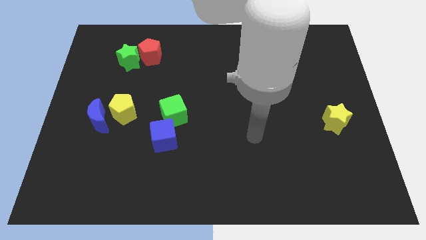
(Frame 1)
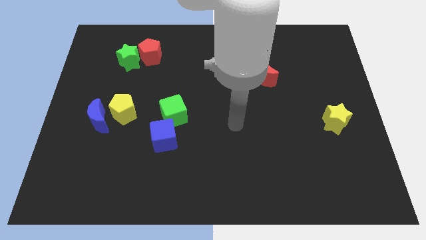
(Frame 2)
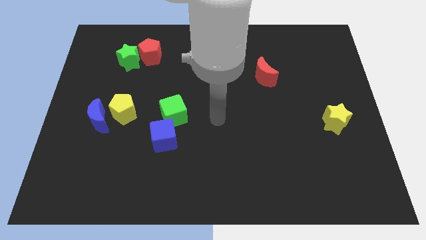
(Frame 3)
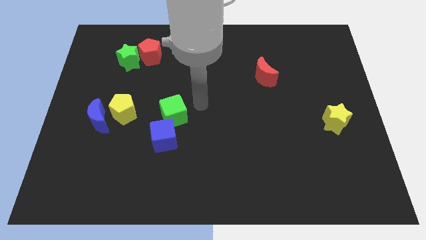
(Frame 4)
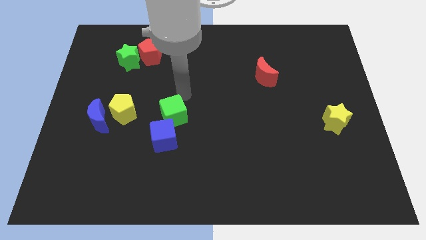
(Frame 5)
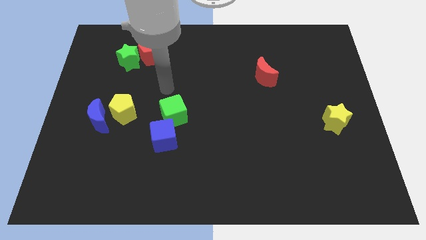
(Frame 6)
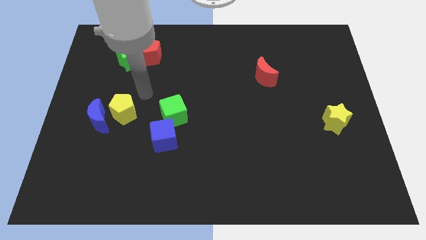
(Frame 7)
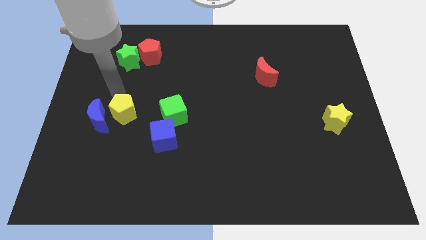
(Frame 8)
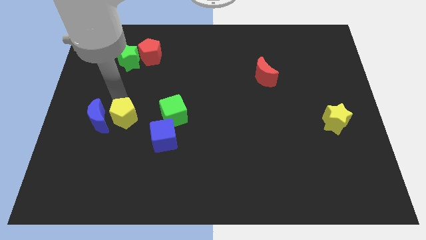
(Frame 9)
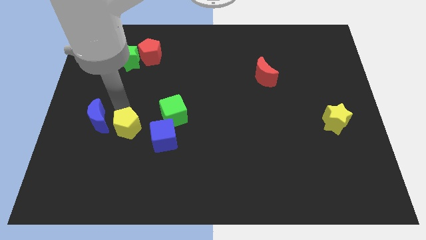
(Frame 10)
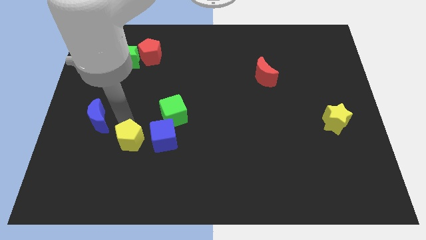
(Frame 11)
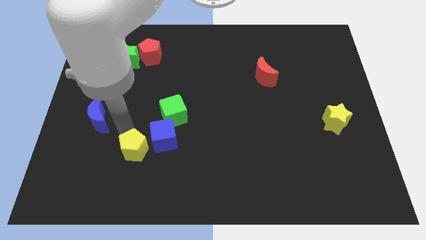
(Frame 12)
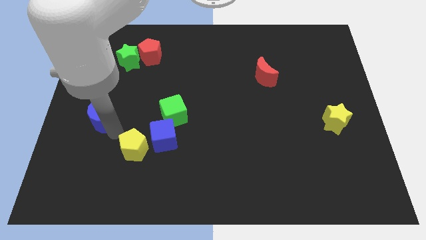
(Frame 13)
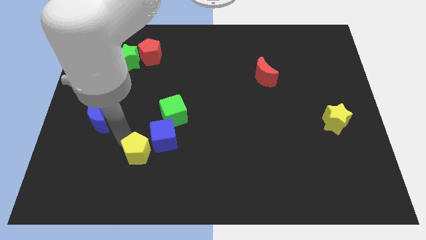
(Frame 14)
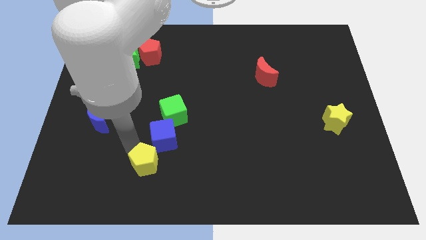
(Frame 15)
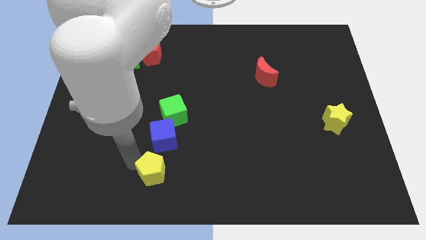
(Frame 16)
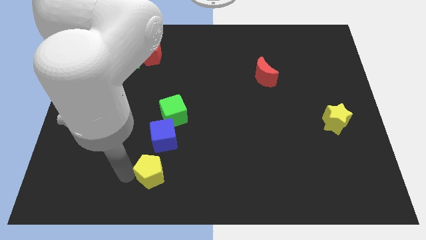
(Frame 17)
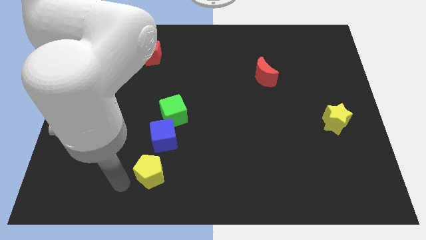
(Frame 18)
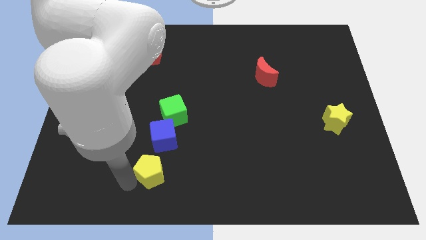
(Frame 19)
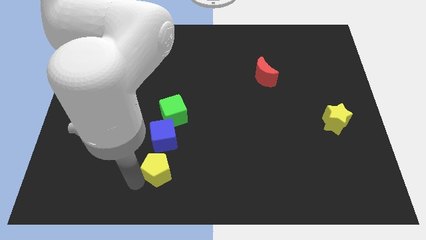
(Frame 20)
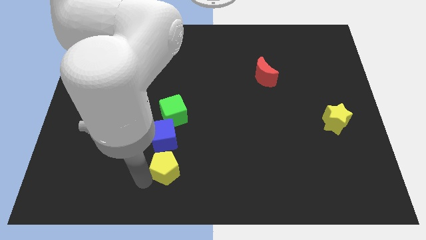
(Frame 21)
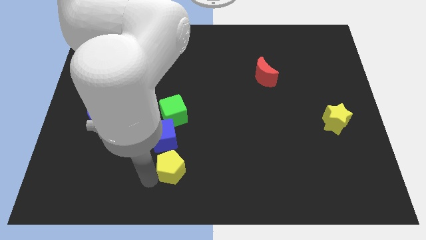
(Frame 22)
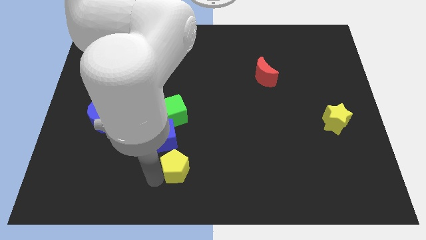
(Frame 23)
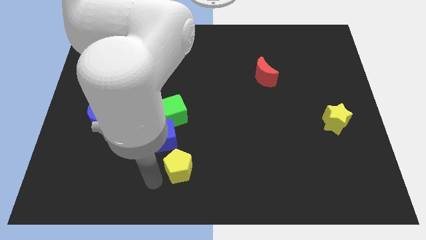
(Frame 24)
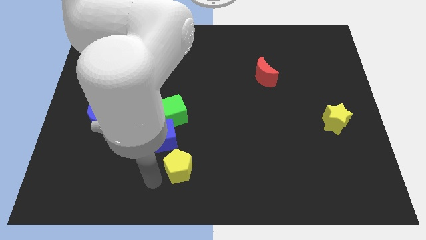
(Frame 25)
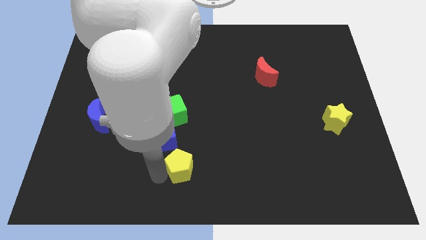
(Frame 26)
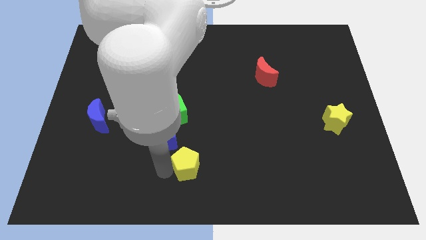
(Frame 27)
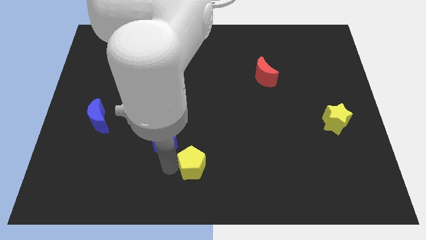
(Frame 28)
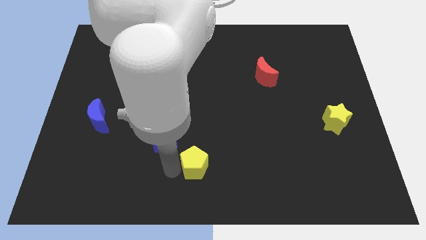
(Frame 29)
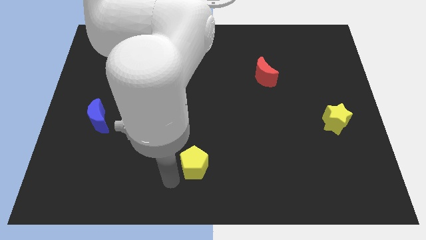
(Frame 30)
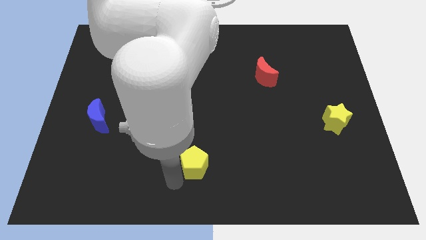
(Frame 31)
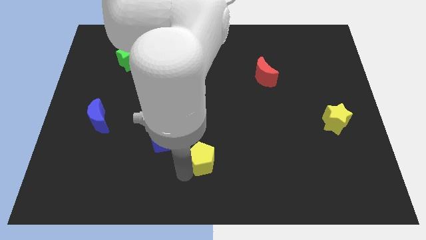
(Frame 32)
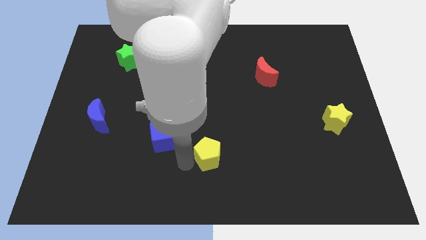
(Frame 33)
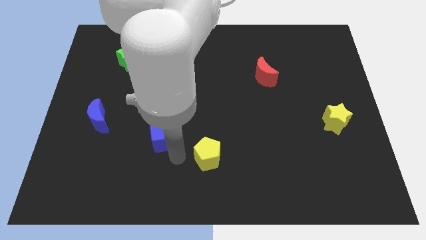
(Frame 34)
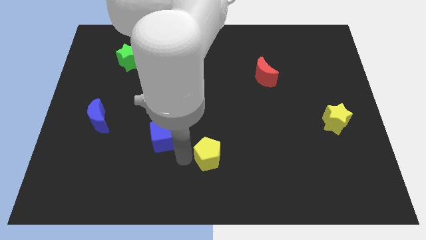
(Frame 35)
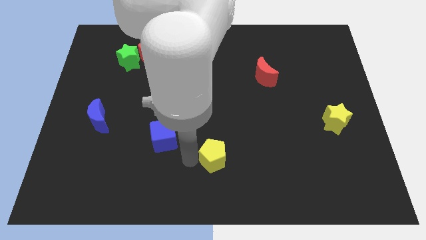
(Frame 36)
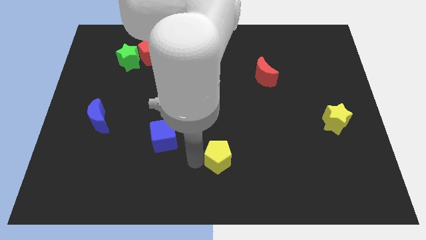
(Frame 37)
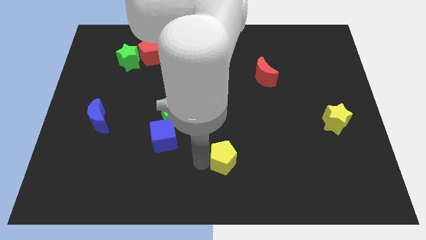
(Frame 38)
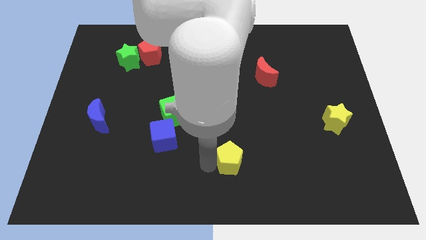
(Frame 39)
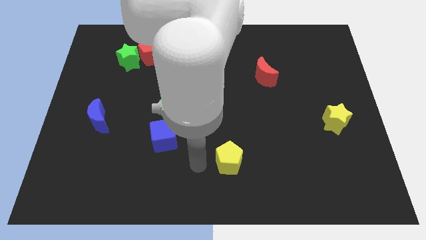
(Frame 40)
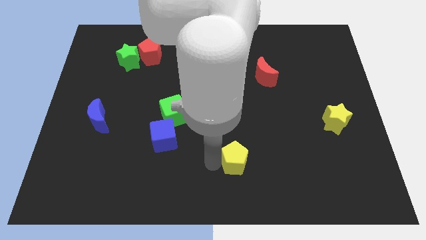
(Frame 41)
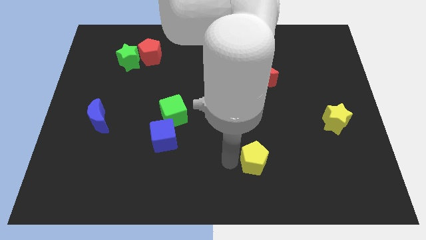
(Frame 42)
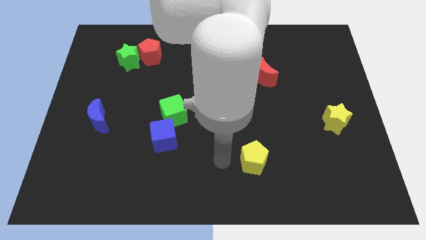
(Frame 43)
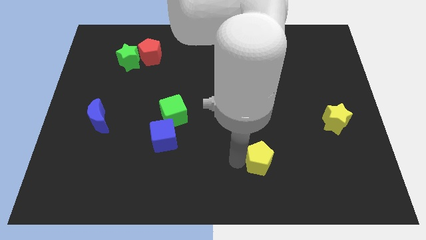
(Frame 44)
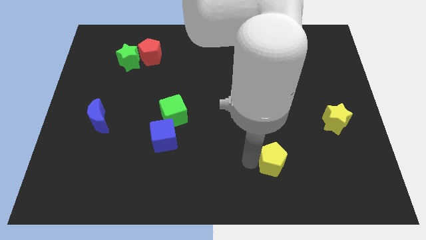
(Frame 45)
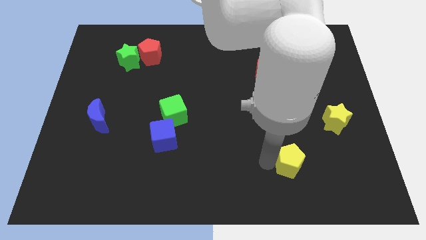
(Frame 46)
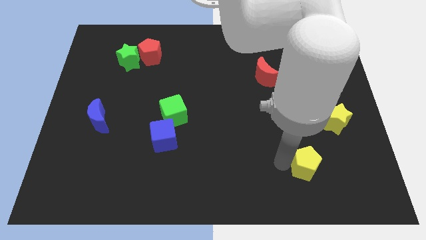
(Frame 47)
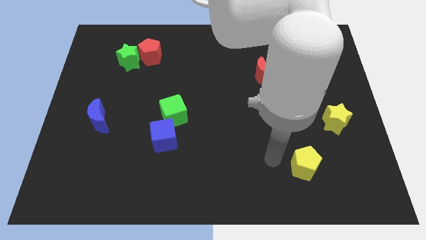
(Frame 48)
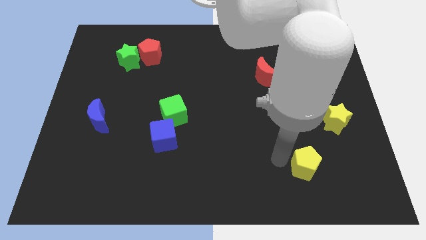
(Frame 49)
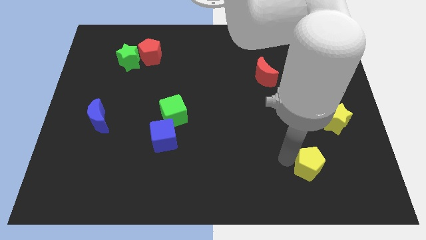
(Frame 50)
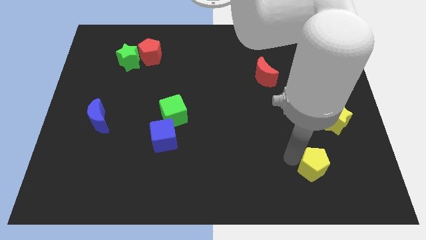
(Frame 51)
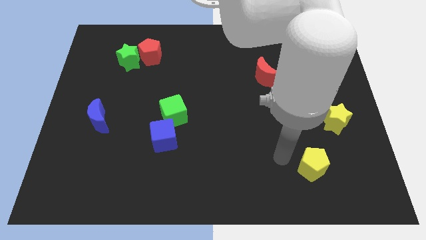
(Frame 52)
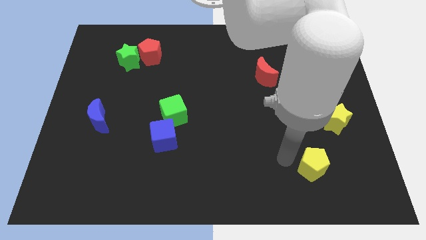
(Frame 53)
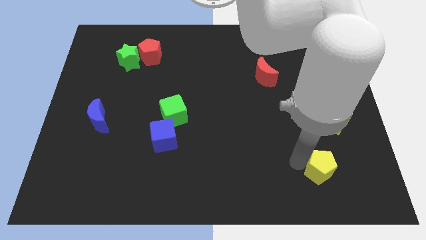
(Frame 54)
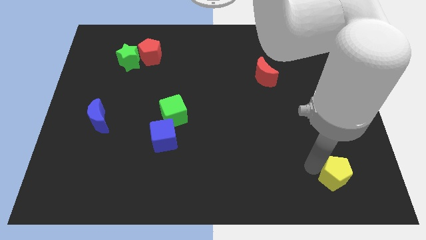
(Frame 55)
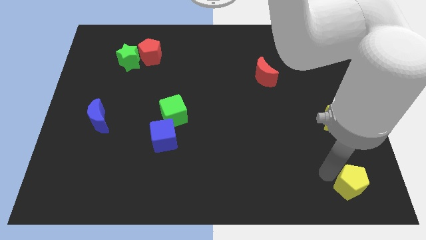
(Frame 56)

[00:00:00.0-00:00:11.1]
move the yellow pentagon to the bottom right of the board

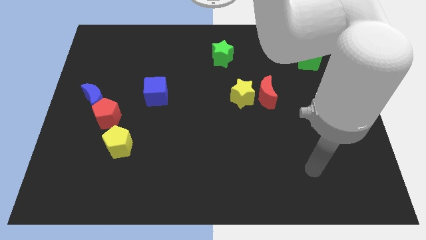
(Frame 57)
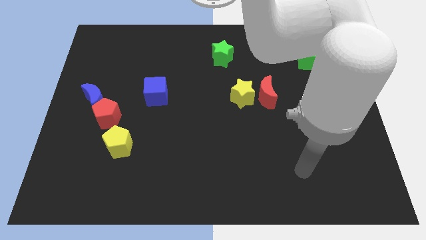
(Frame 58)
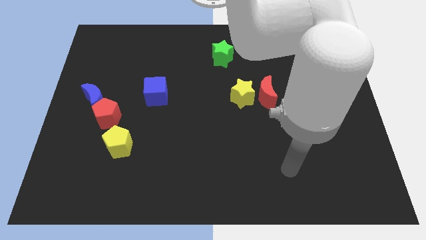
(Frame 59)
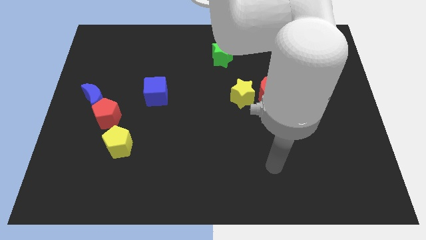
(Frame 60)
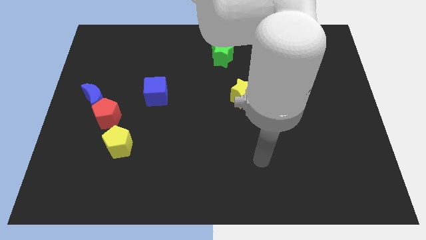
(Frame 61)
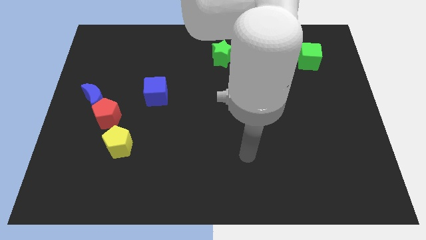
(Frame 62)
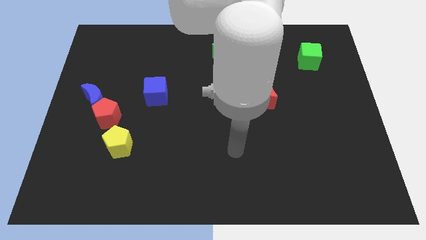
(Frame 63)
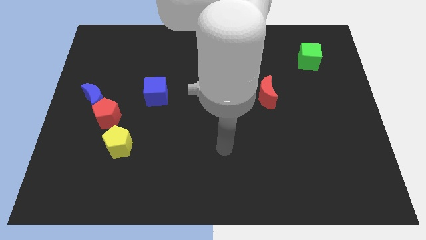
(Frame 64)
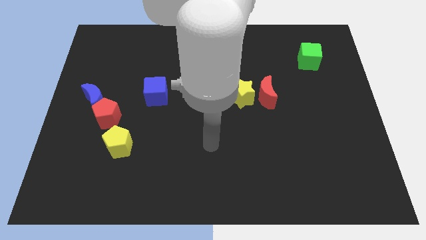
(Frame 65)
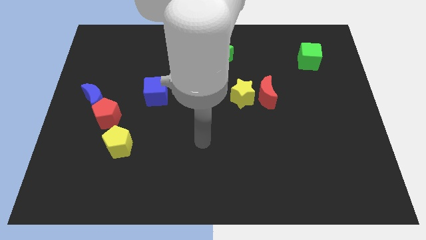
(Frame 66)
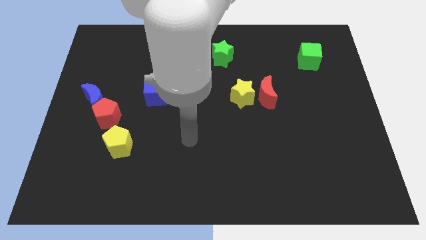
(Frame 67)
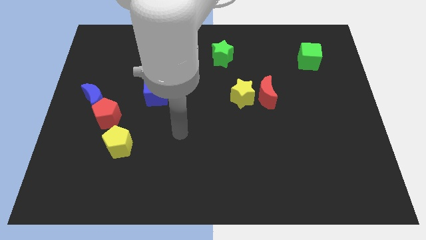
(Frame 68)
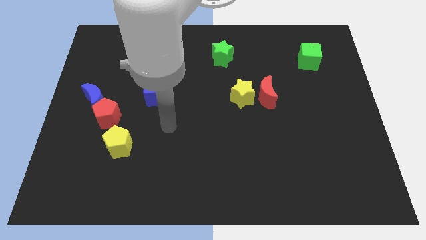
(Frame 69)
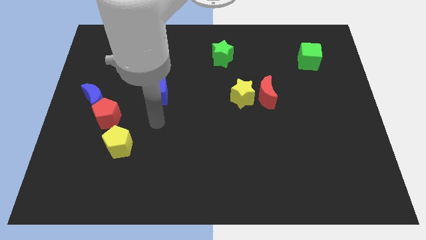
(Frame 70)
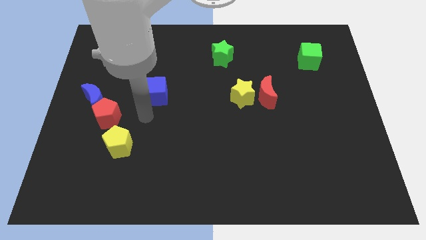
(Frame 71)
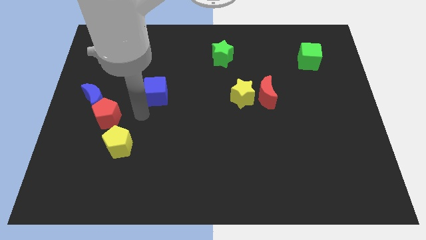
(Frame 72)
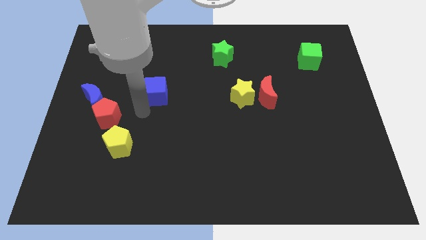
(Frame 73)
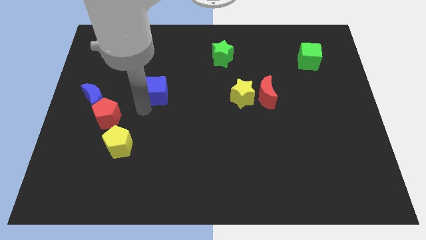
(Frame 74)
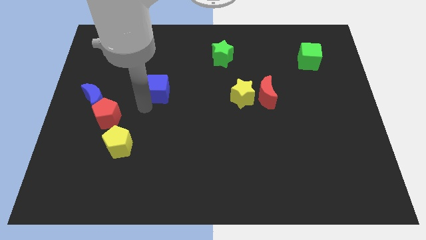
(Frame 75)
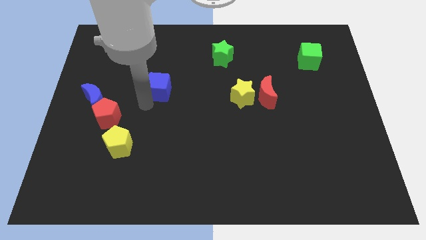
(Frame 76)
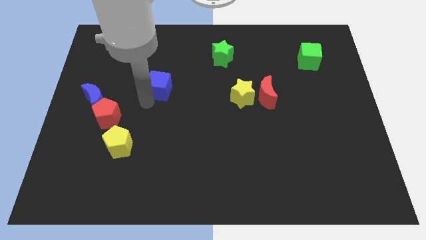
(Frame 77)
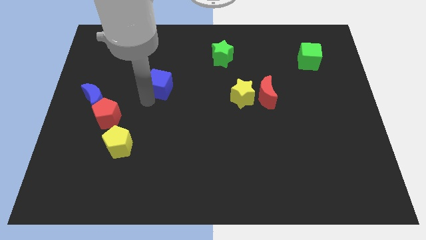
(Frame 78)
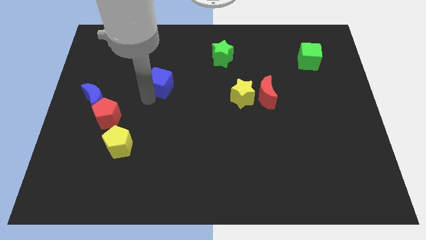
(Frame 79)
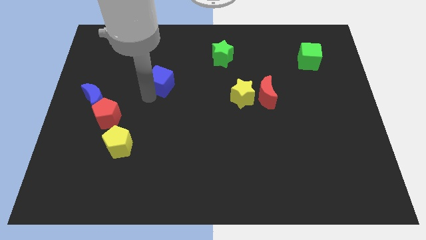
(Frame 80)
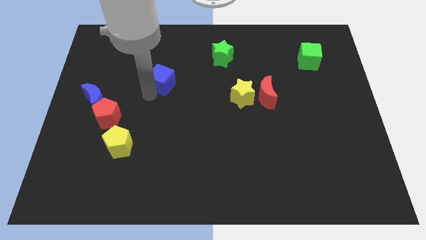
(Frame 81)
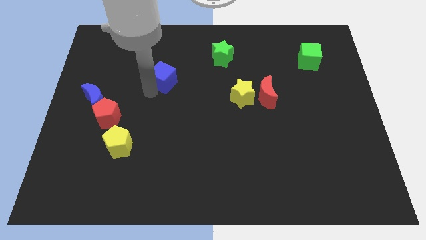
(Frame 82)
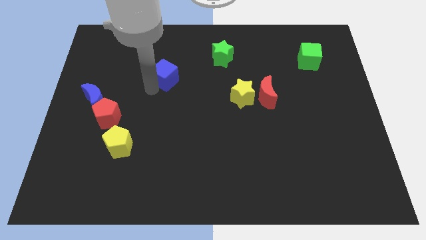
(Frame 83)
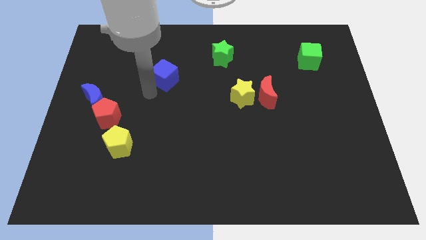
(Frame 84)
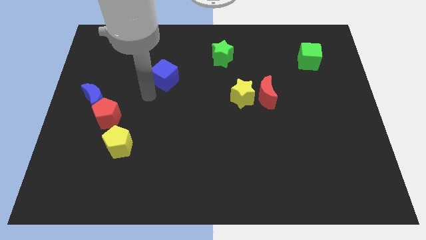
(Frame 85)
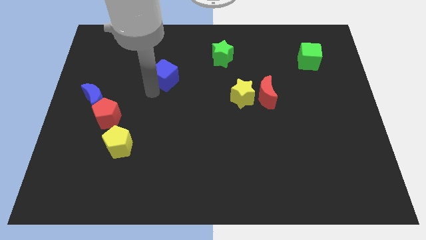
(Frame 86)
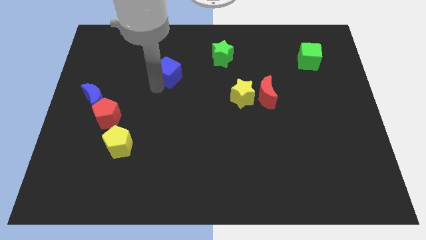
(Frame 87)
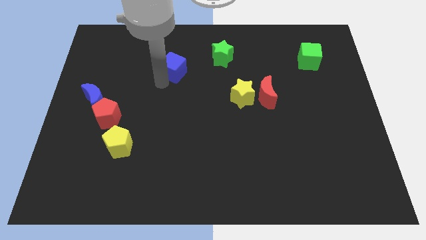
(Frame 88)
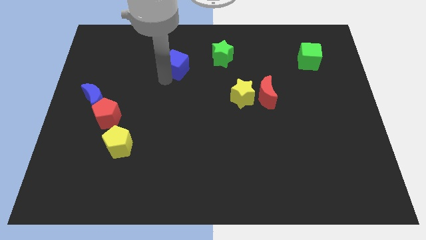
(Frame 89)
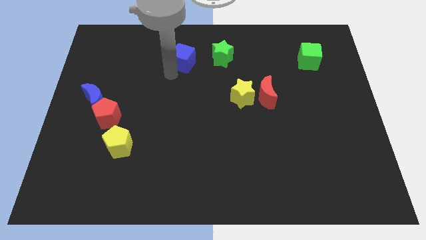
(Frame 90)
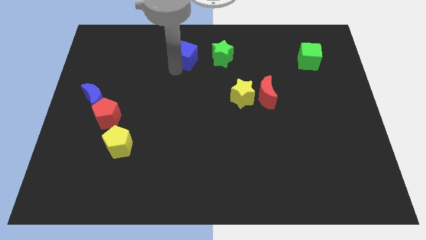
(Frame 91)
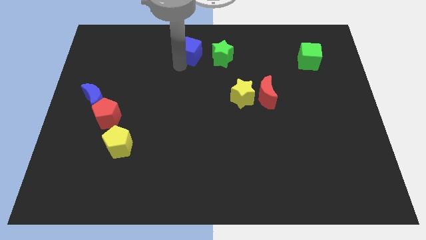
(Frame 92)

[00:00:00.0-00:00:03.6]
put the blue cube to the towards your base
